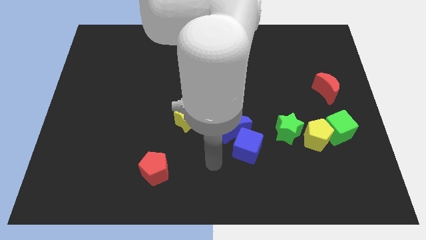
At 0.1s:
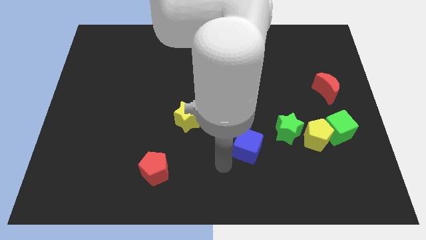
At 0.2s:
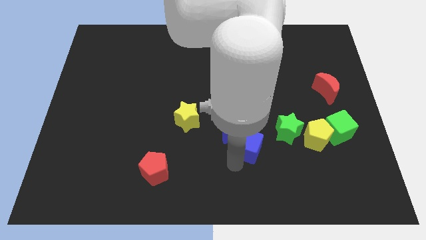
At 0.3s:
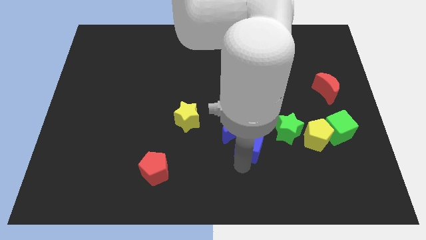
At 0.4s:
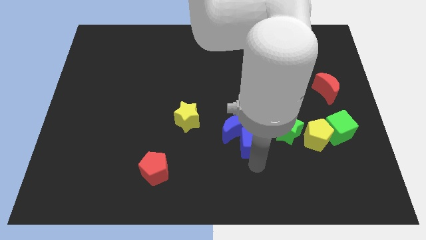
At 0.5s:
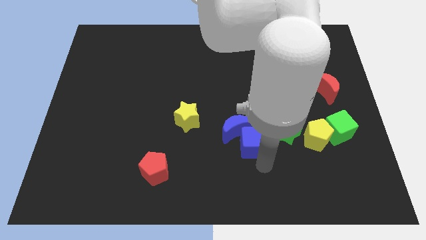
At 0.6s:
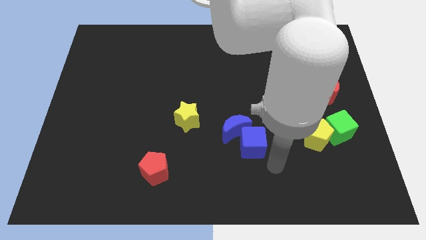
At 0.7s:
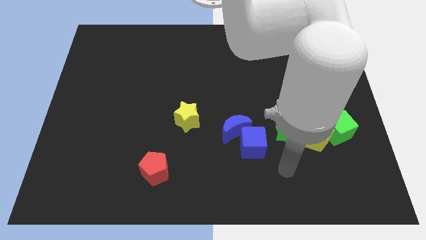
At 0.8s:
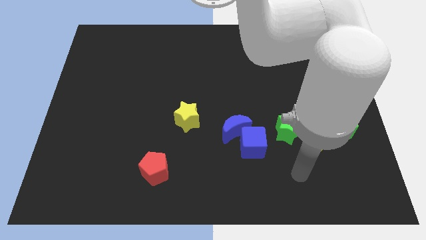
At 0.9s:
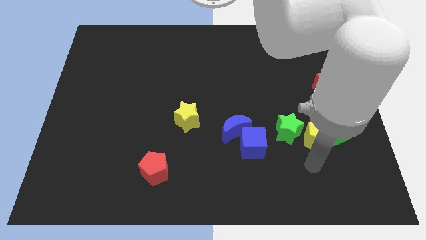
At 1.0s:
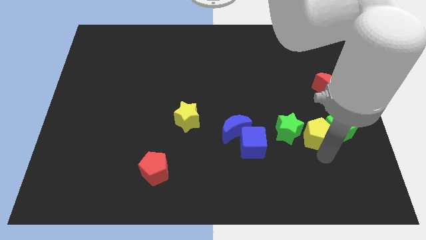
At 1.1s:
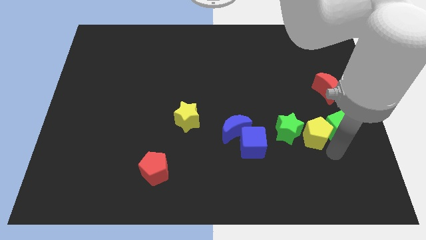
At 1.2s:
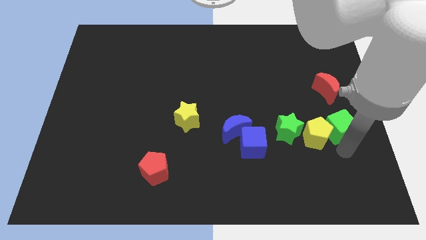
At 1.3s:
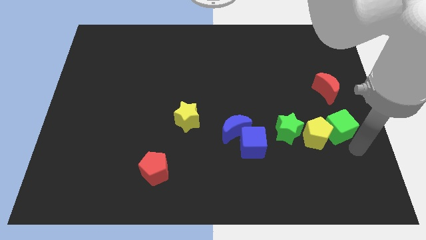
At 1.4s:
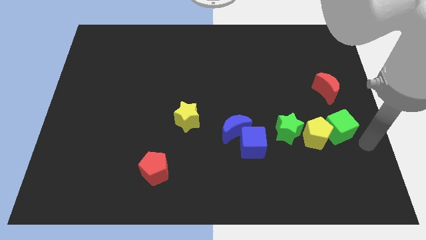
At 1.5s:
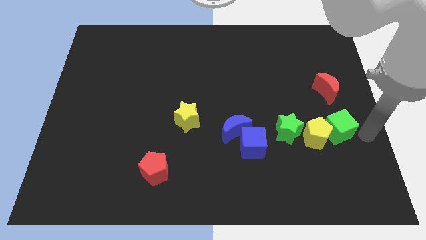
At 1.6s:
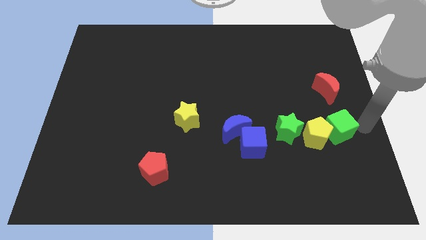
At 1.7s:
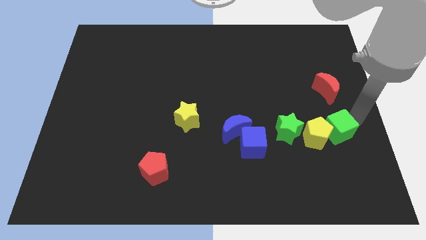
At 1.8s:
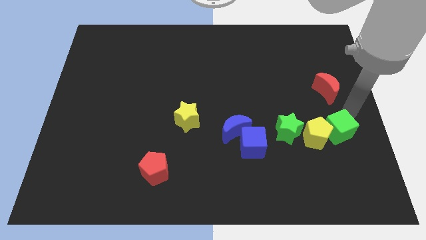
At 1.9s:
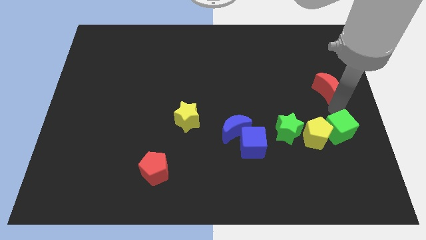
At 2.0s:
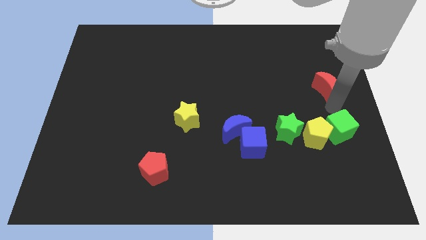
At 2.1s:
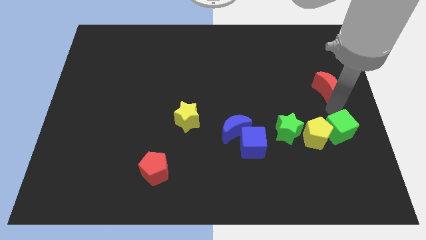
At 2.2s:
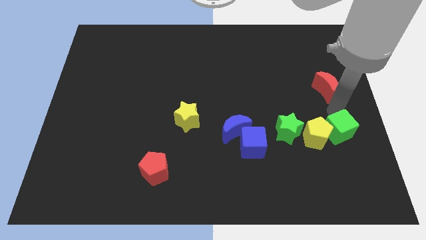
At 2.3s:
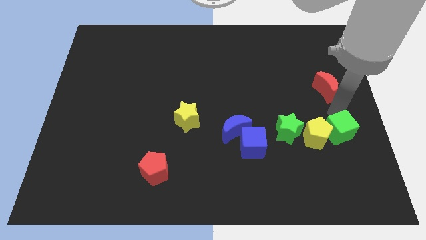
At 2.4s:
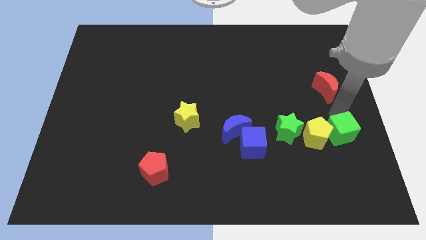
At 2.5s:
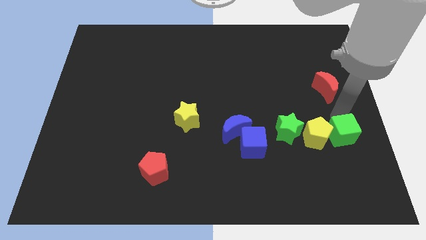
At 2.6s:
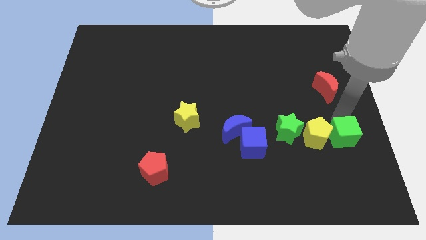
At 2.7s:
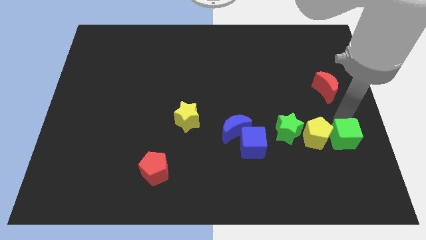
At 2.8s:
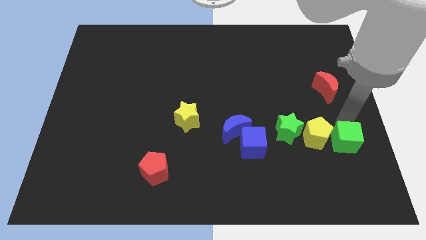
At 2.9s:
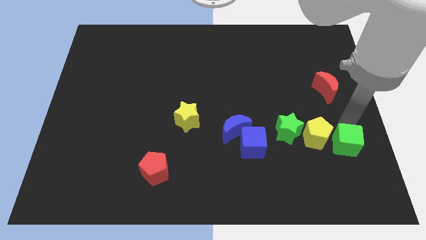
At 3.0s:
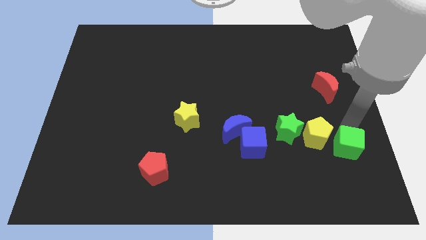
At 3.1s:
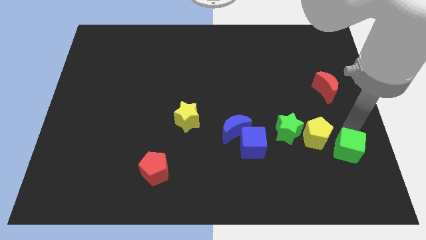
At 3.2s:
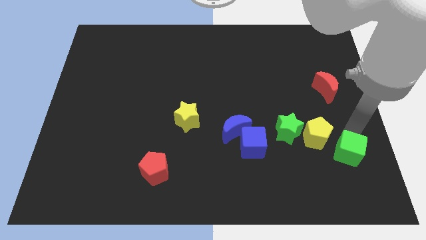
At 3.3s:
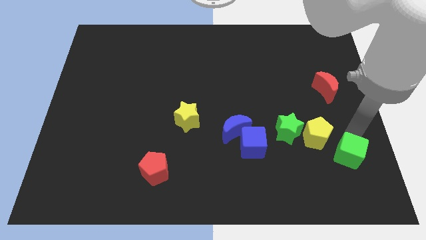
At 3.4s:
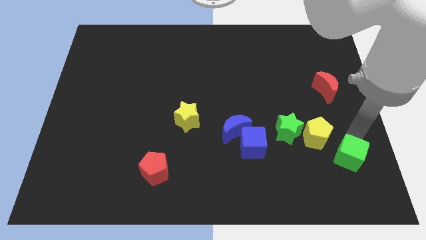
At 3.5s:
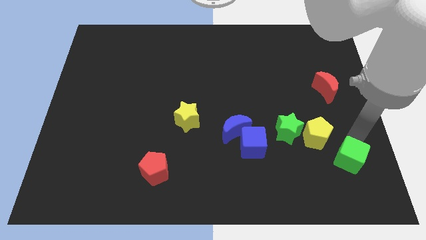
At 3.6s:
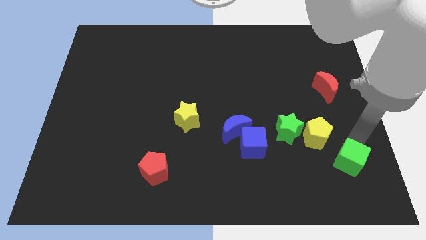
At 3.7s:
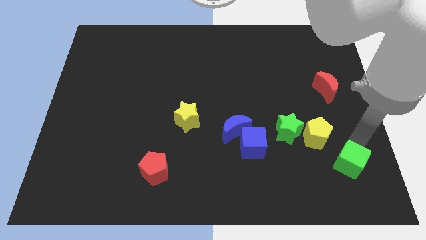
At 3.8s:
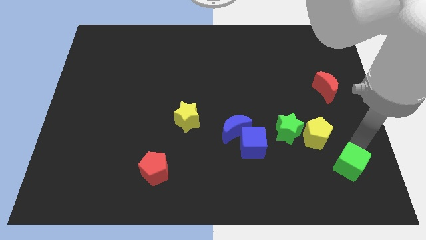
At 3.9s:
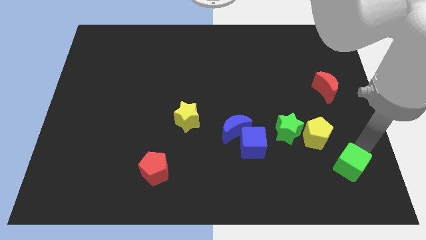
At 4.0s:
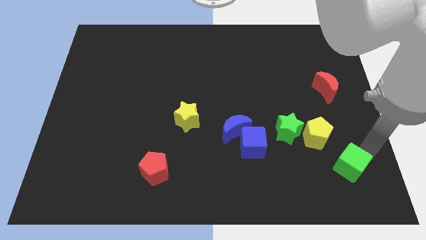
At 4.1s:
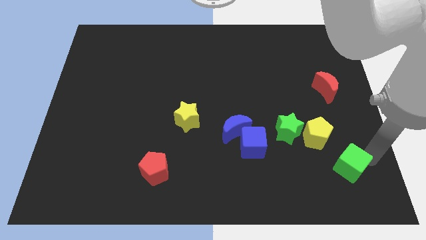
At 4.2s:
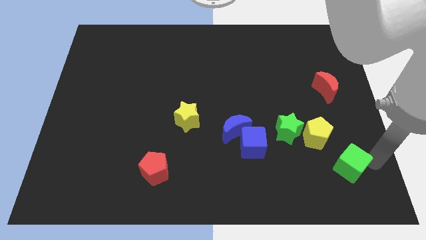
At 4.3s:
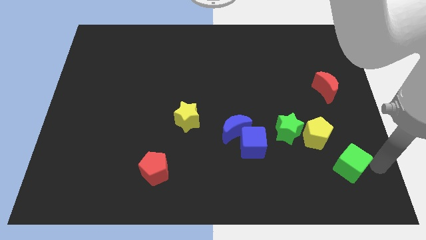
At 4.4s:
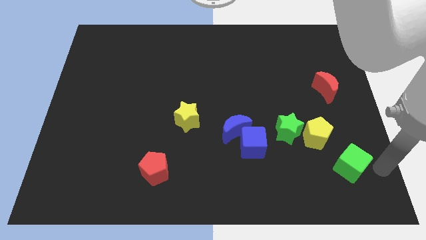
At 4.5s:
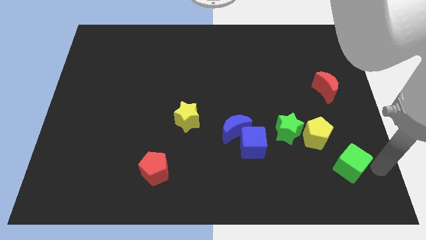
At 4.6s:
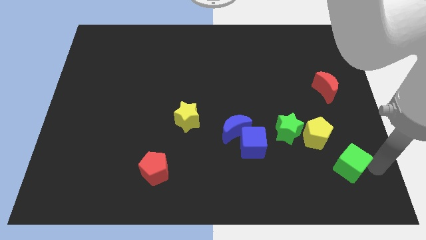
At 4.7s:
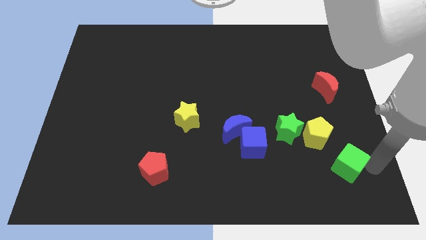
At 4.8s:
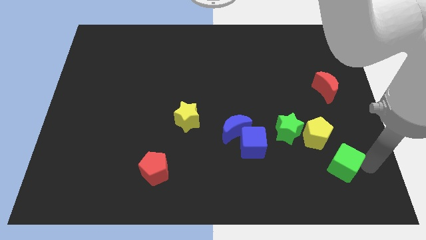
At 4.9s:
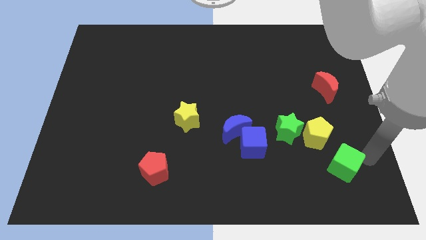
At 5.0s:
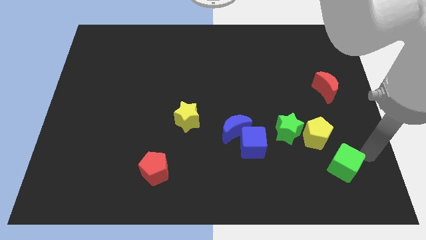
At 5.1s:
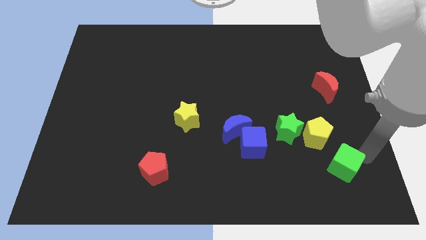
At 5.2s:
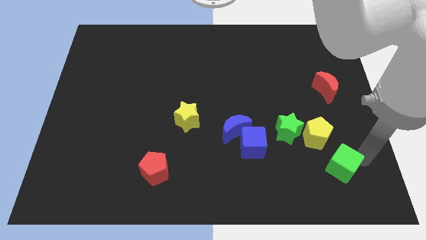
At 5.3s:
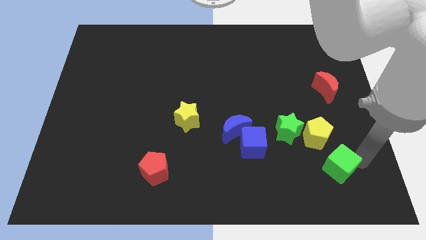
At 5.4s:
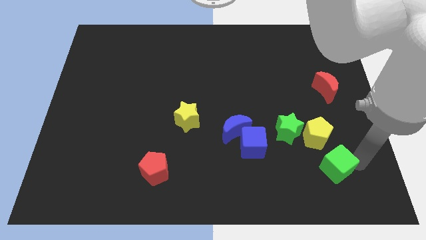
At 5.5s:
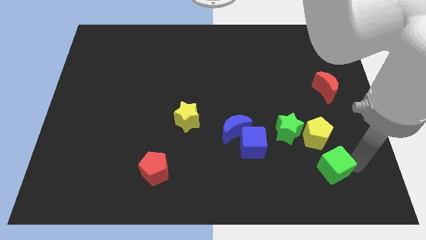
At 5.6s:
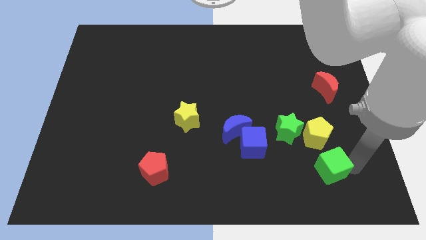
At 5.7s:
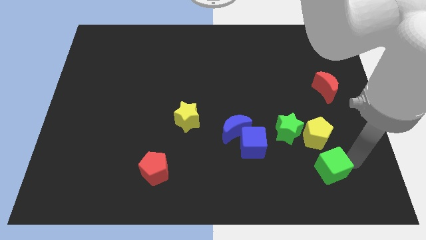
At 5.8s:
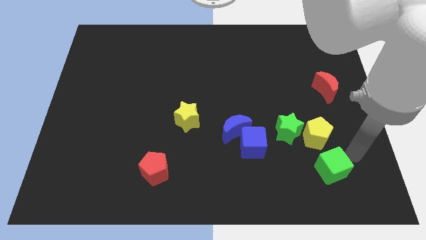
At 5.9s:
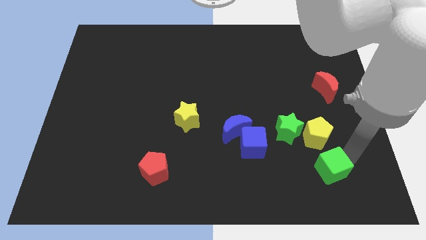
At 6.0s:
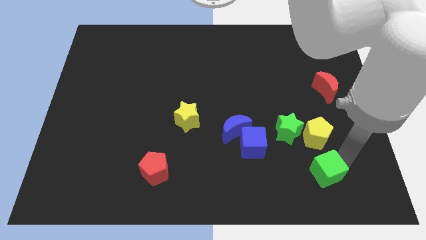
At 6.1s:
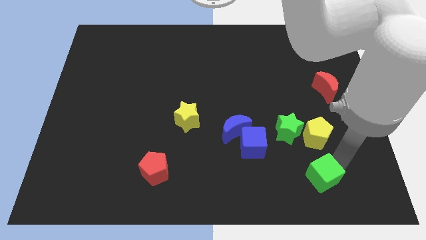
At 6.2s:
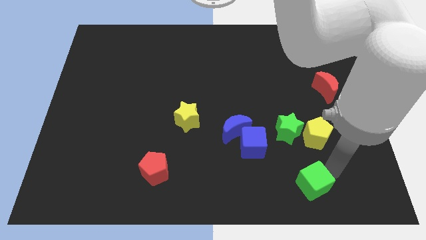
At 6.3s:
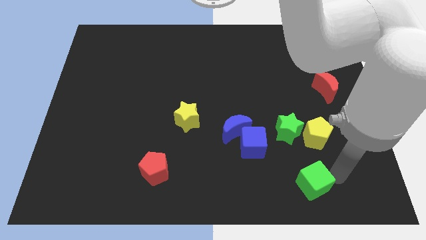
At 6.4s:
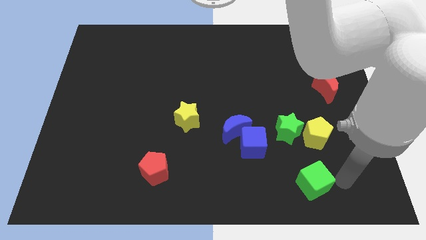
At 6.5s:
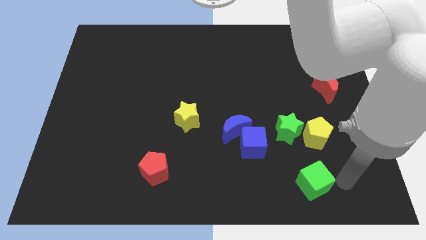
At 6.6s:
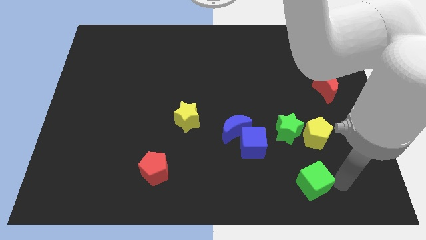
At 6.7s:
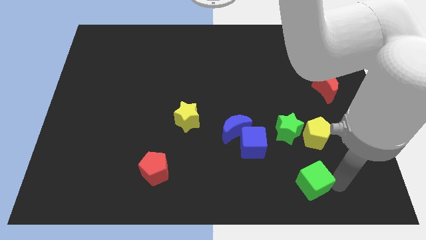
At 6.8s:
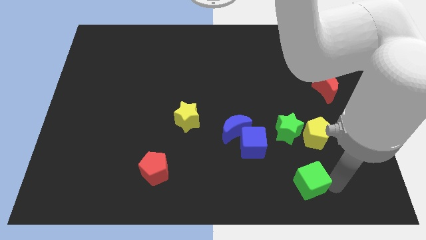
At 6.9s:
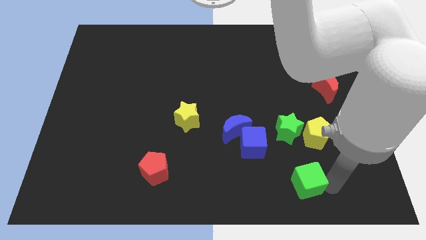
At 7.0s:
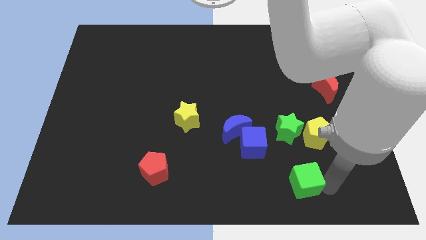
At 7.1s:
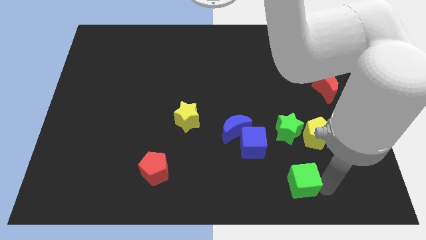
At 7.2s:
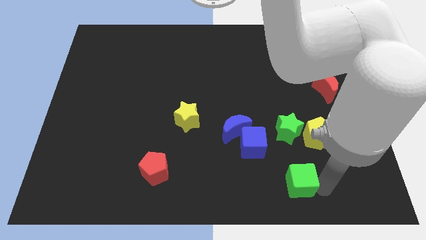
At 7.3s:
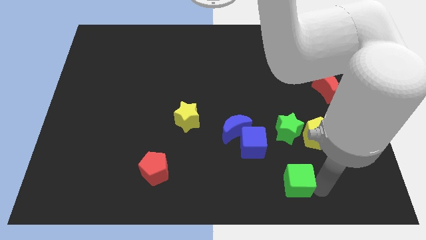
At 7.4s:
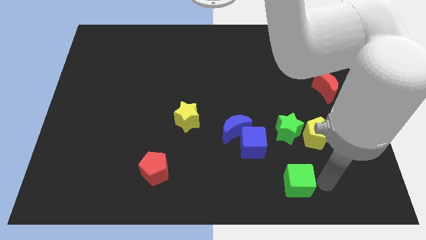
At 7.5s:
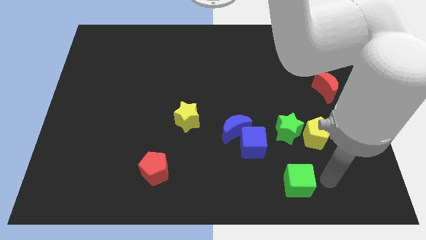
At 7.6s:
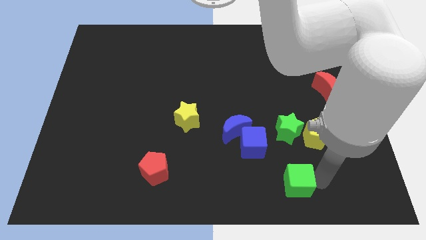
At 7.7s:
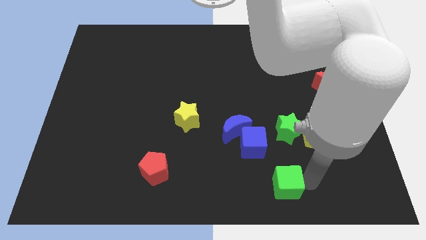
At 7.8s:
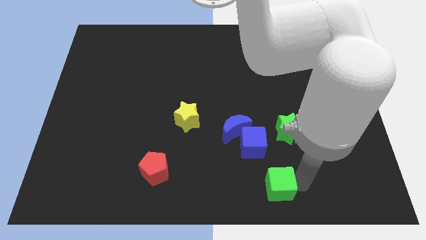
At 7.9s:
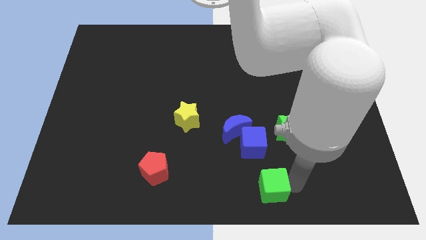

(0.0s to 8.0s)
move the green cube to the bottom

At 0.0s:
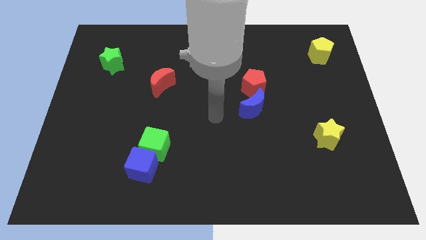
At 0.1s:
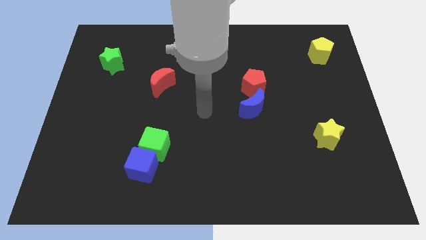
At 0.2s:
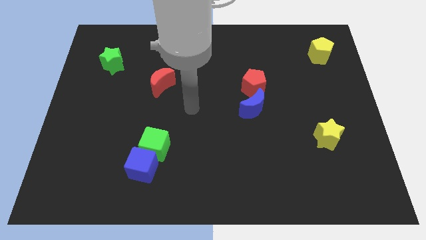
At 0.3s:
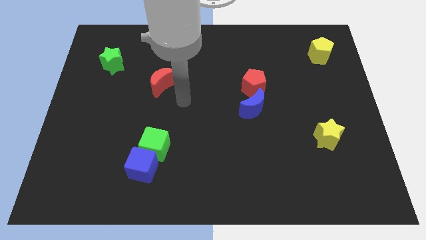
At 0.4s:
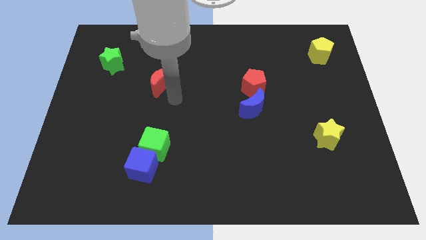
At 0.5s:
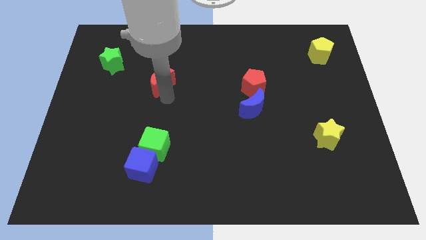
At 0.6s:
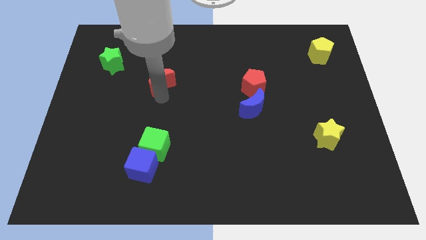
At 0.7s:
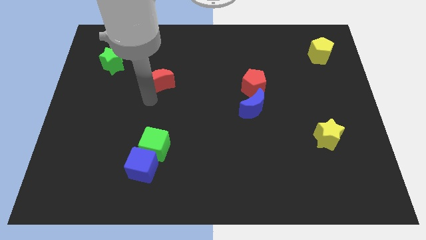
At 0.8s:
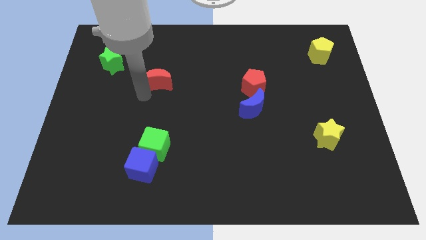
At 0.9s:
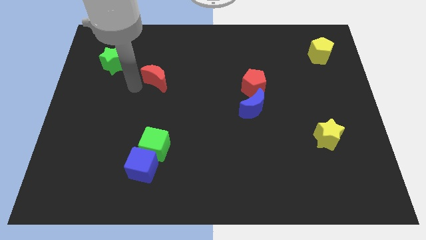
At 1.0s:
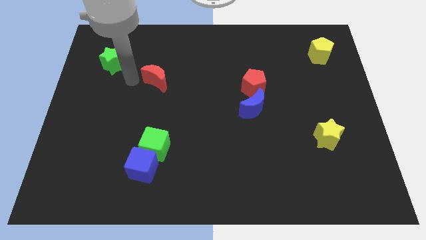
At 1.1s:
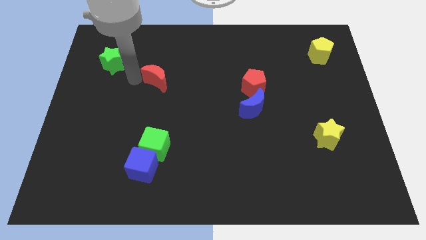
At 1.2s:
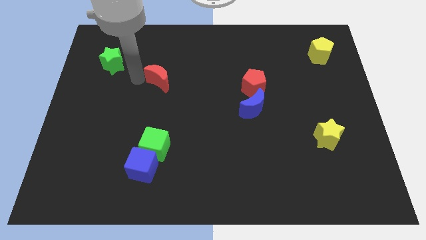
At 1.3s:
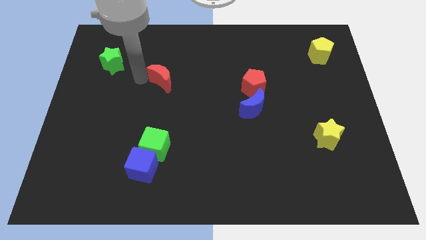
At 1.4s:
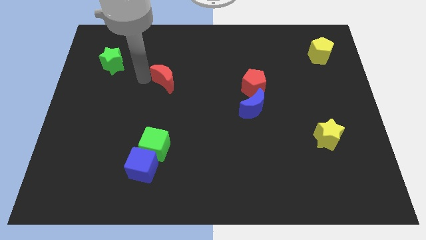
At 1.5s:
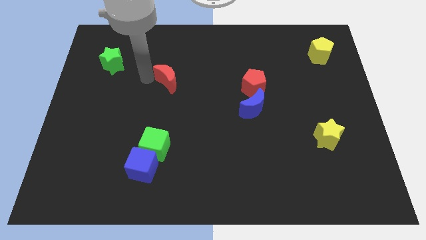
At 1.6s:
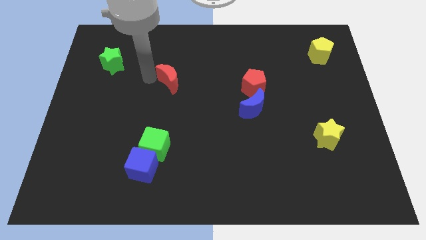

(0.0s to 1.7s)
move the red moon to the center
